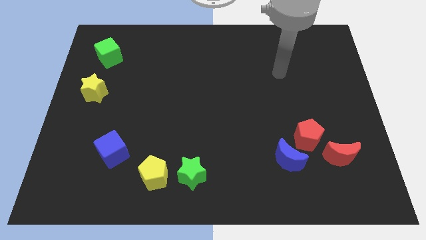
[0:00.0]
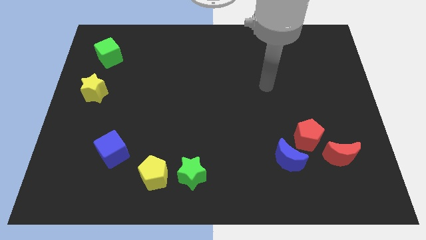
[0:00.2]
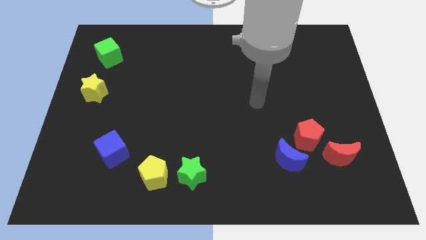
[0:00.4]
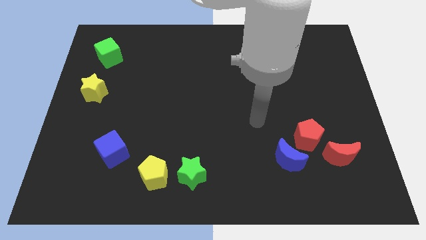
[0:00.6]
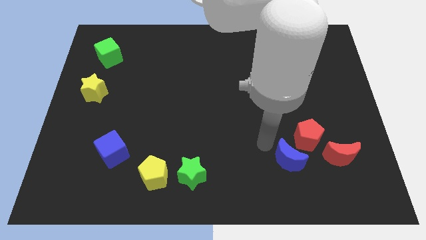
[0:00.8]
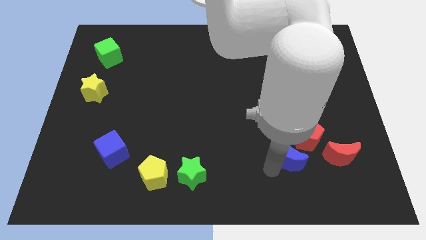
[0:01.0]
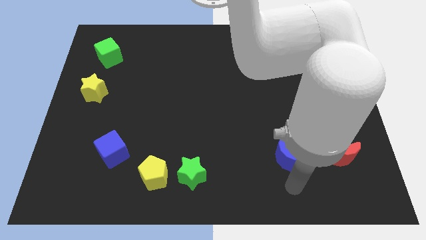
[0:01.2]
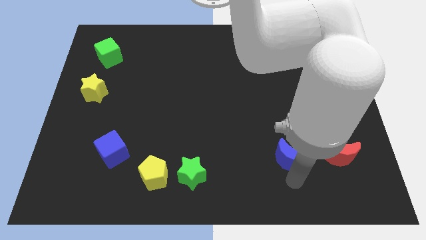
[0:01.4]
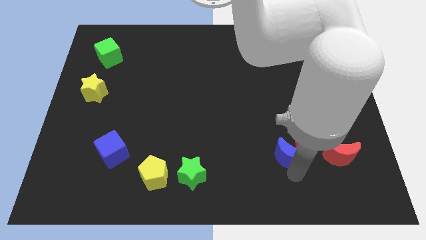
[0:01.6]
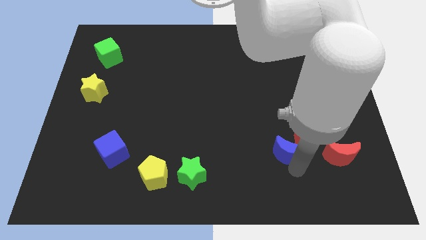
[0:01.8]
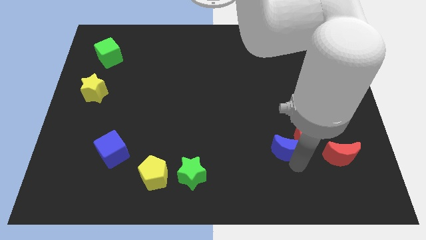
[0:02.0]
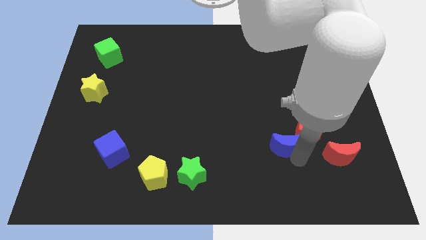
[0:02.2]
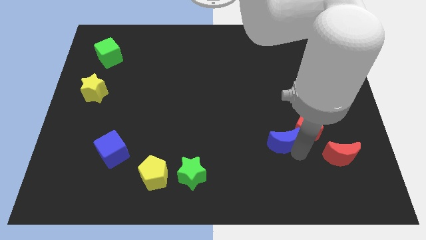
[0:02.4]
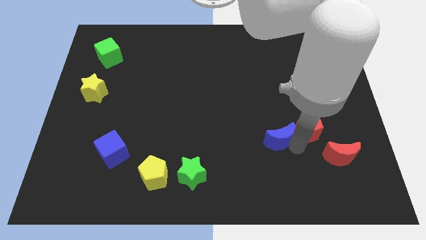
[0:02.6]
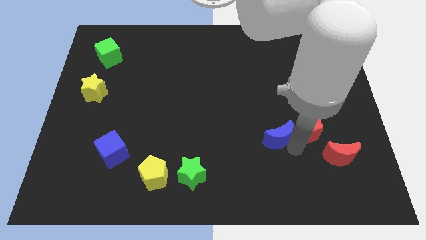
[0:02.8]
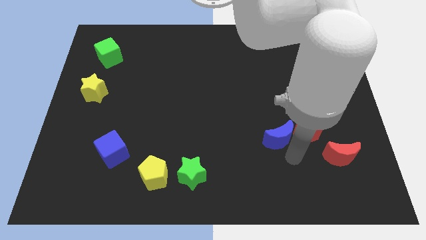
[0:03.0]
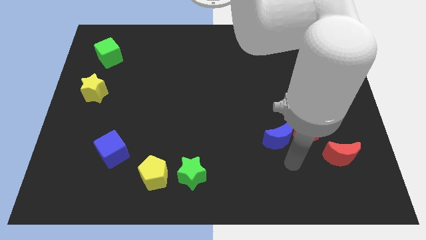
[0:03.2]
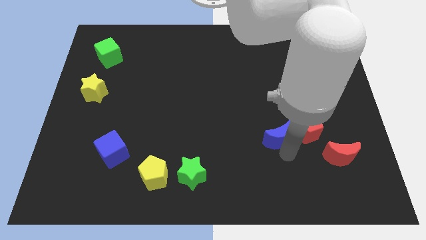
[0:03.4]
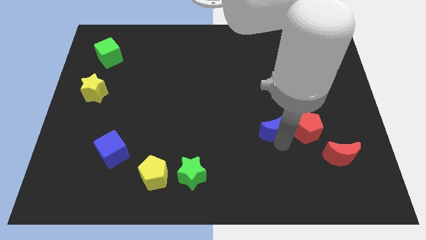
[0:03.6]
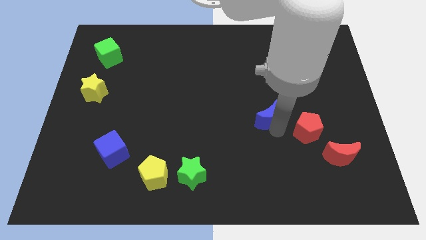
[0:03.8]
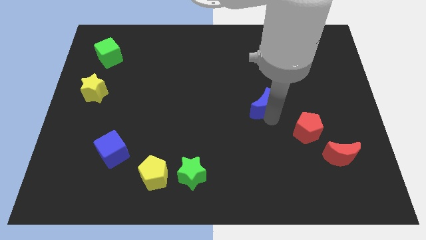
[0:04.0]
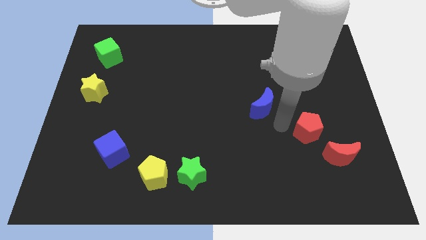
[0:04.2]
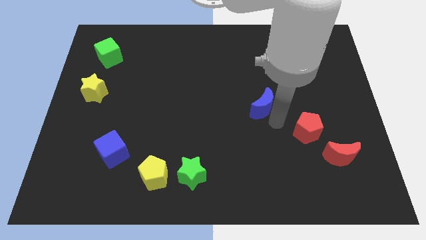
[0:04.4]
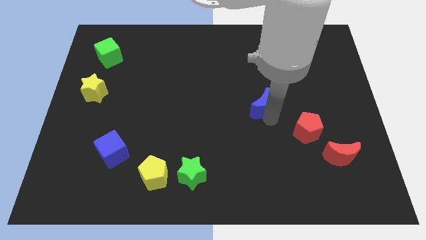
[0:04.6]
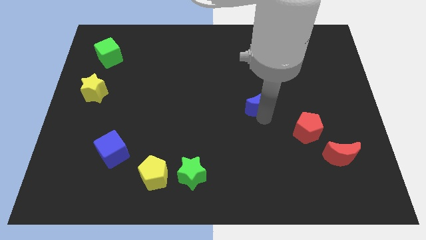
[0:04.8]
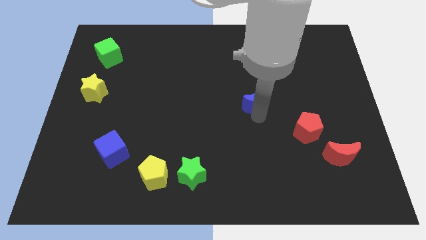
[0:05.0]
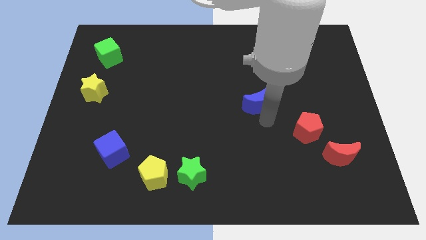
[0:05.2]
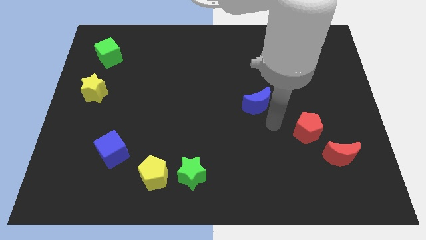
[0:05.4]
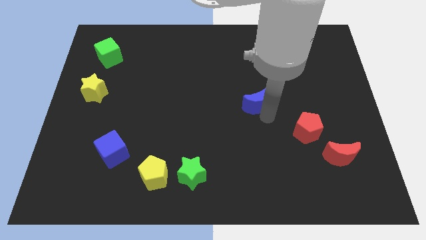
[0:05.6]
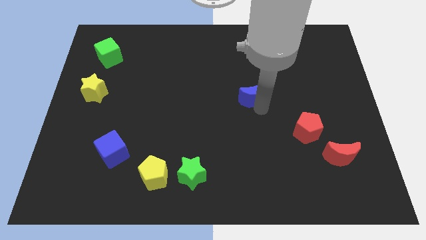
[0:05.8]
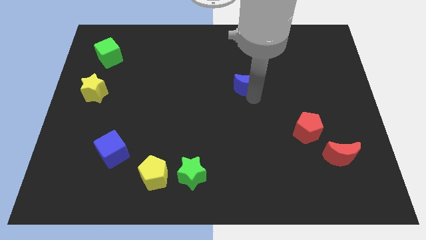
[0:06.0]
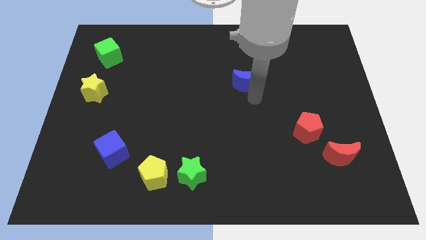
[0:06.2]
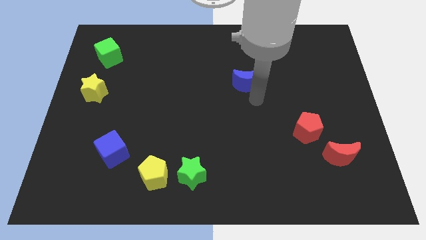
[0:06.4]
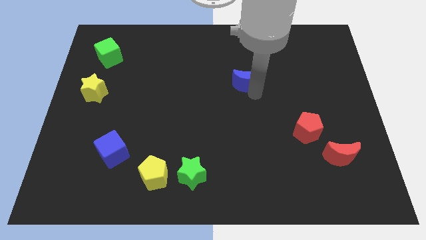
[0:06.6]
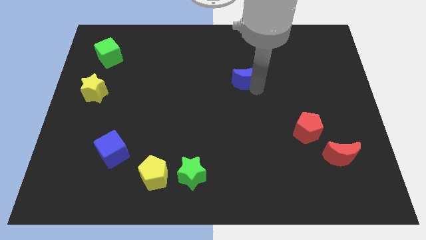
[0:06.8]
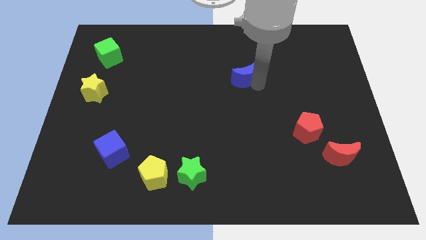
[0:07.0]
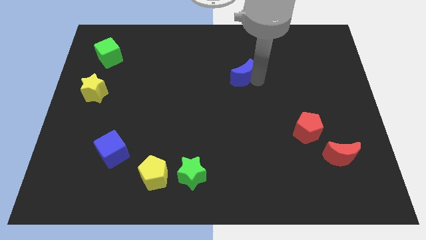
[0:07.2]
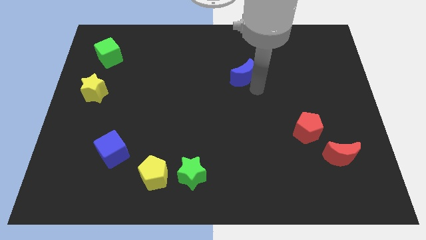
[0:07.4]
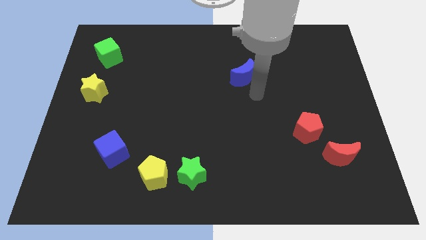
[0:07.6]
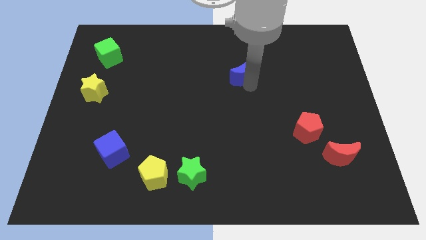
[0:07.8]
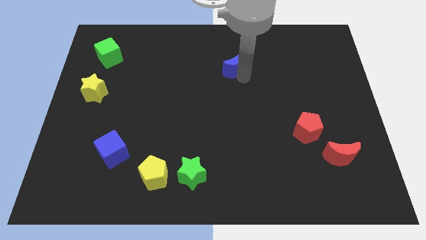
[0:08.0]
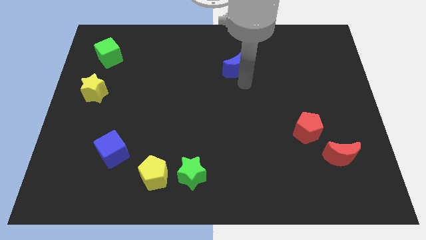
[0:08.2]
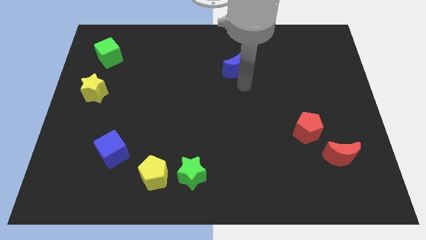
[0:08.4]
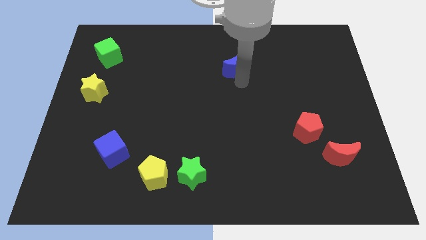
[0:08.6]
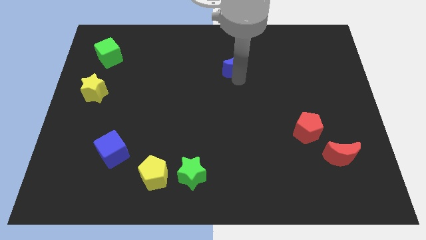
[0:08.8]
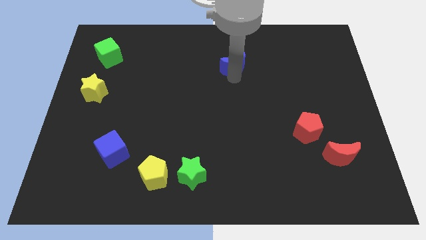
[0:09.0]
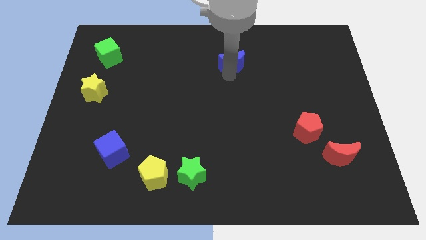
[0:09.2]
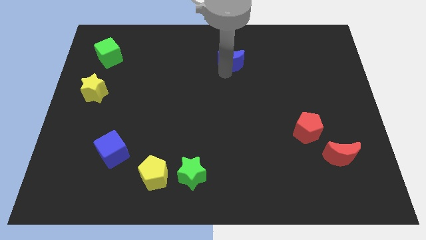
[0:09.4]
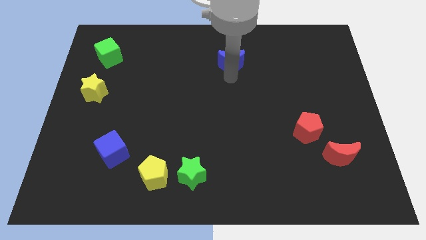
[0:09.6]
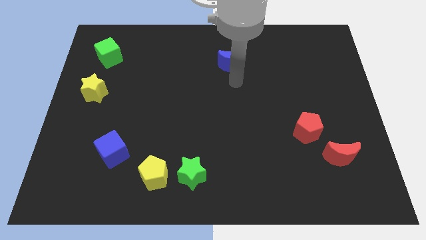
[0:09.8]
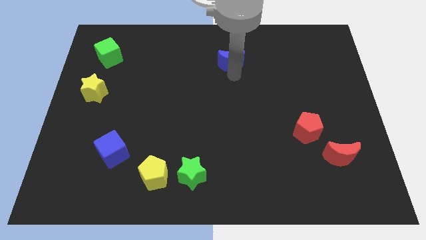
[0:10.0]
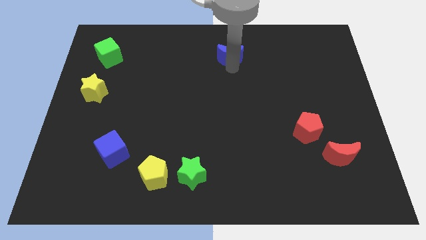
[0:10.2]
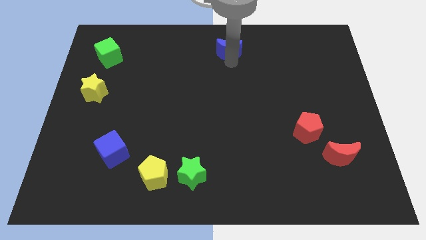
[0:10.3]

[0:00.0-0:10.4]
slide the blue moon to the towards your base

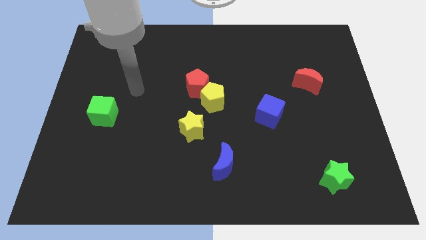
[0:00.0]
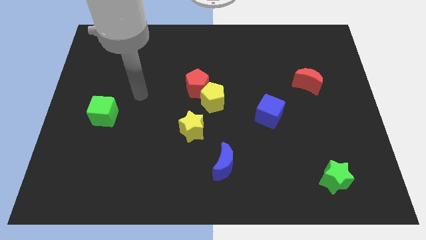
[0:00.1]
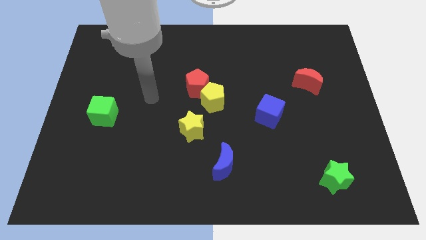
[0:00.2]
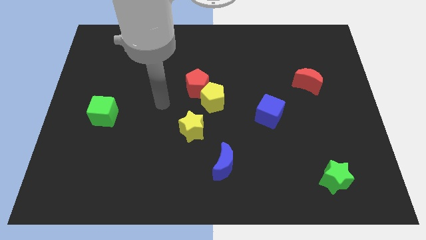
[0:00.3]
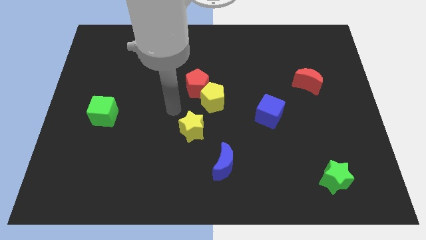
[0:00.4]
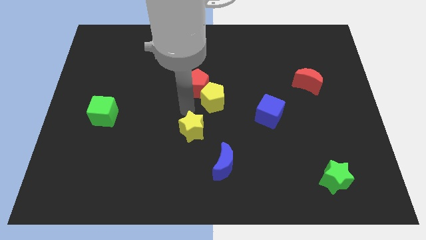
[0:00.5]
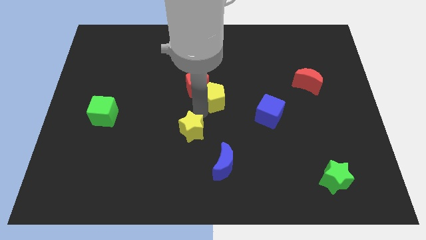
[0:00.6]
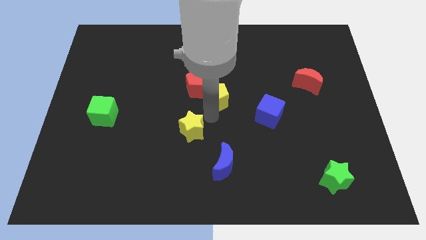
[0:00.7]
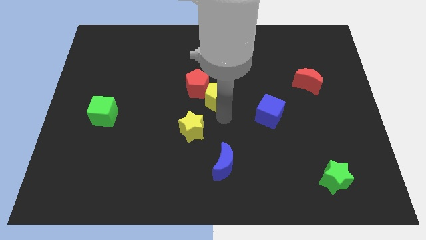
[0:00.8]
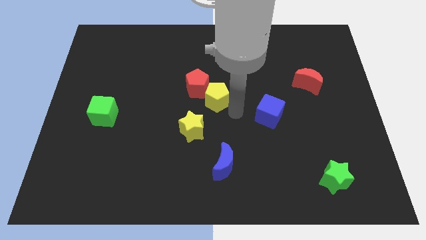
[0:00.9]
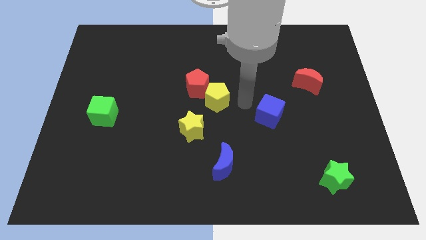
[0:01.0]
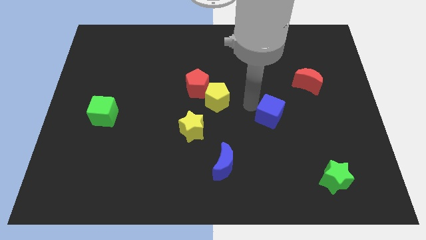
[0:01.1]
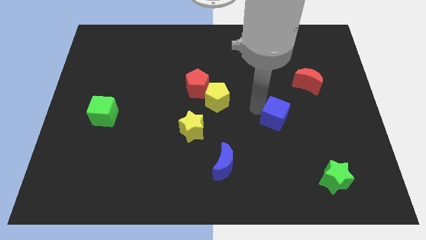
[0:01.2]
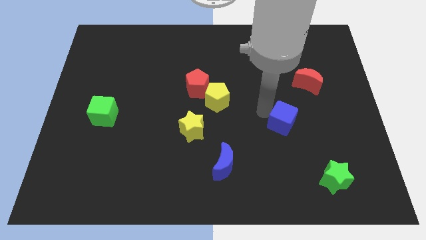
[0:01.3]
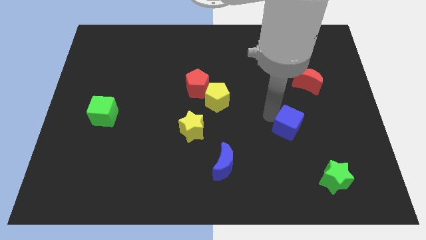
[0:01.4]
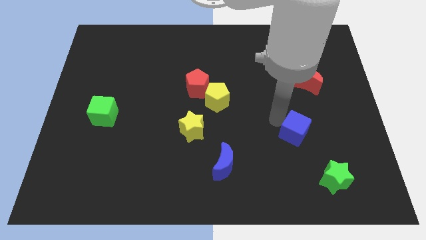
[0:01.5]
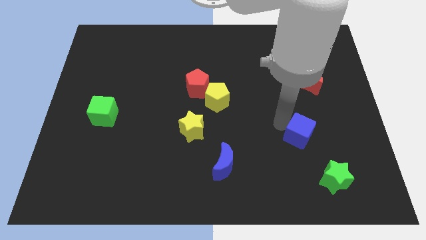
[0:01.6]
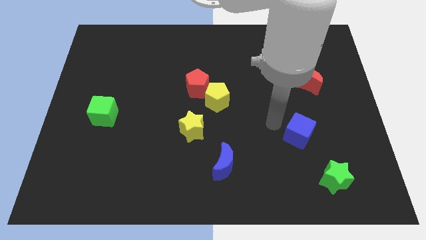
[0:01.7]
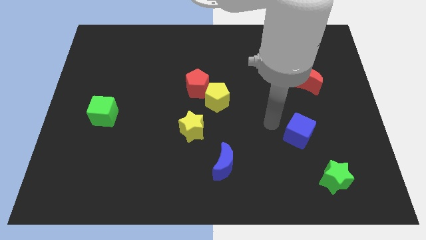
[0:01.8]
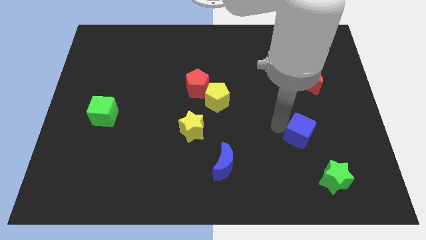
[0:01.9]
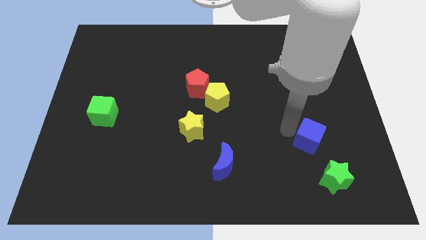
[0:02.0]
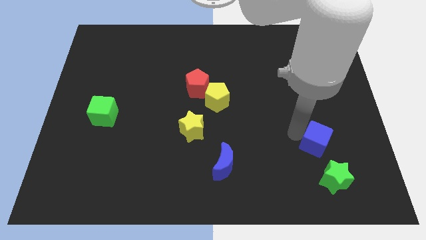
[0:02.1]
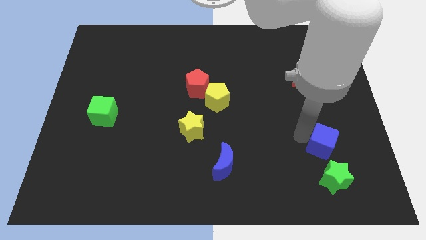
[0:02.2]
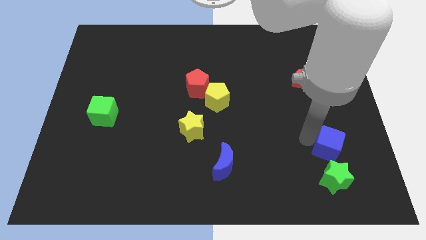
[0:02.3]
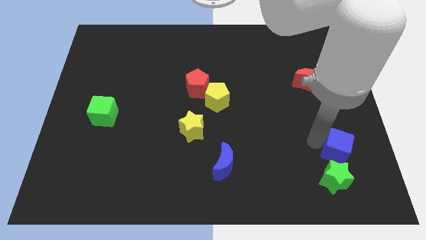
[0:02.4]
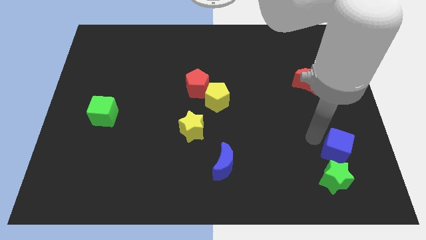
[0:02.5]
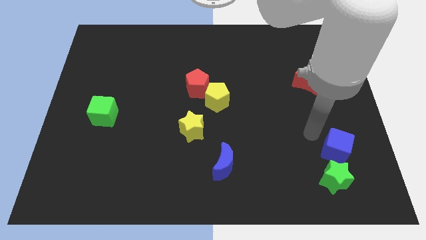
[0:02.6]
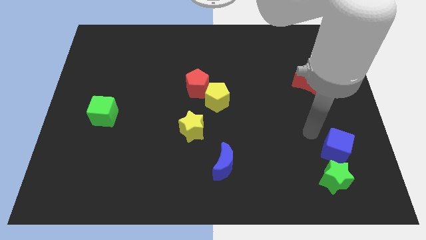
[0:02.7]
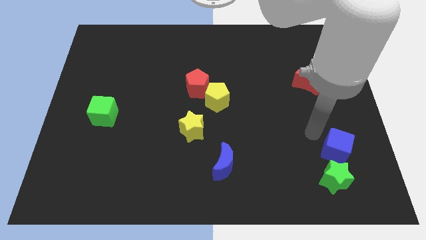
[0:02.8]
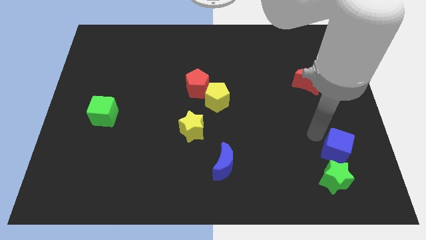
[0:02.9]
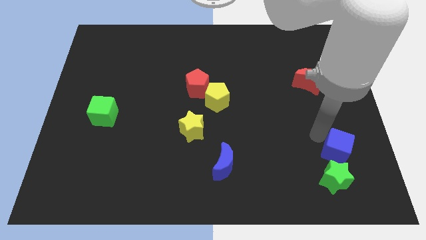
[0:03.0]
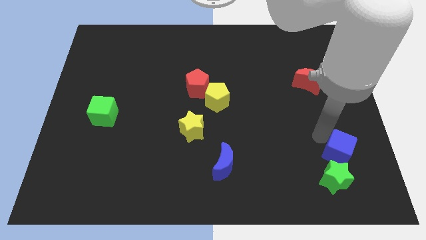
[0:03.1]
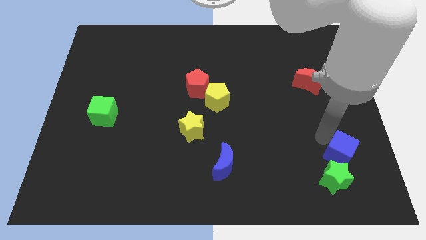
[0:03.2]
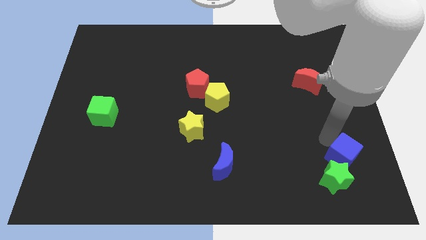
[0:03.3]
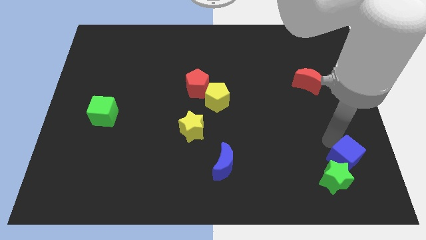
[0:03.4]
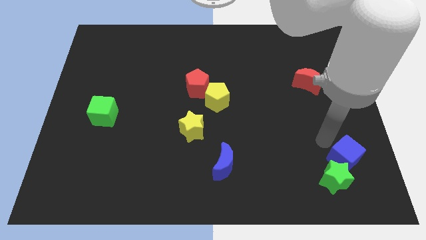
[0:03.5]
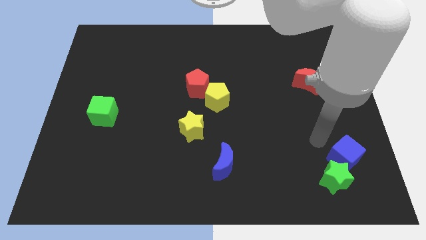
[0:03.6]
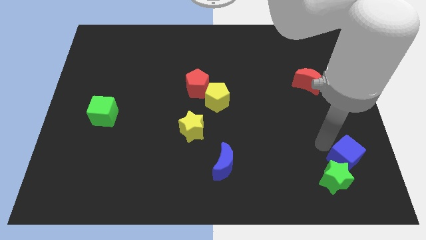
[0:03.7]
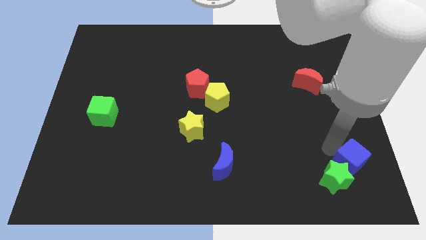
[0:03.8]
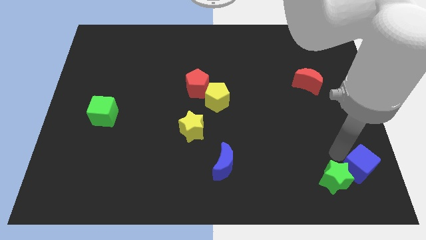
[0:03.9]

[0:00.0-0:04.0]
slide the blue cube to the bottom right
